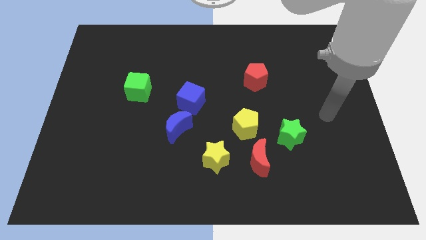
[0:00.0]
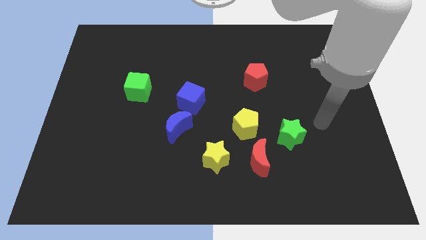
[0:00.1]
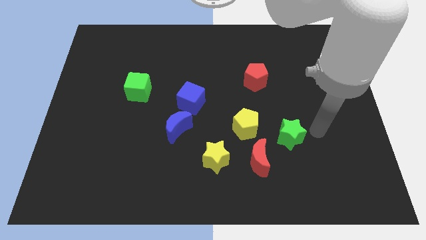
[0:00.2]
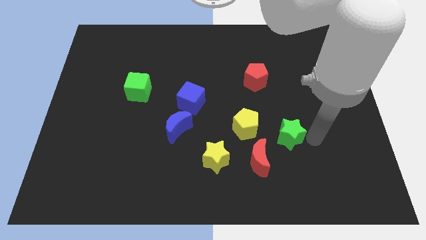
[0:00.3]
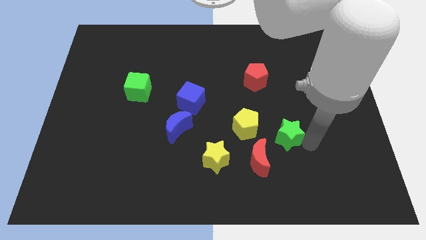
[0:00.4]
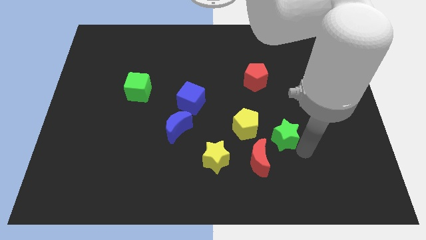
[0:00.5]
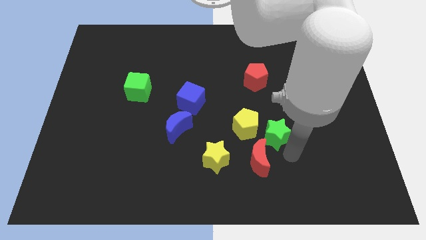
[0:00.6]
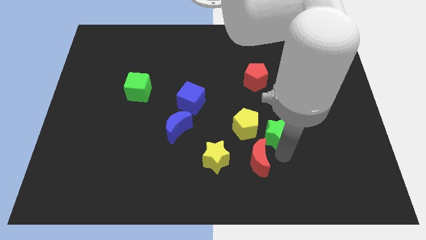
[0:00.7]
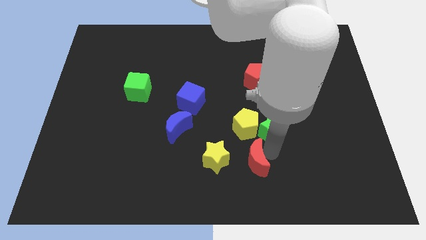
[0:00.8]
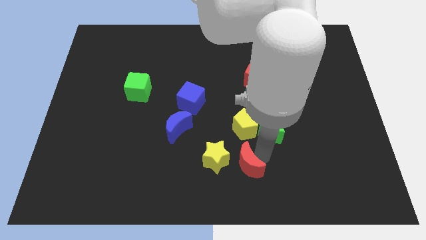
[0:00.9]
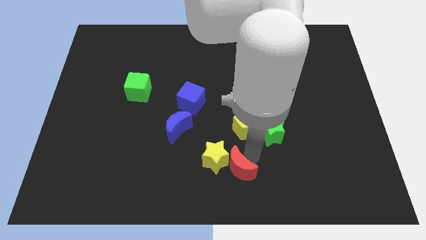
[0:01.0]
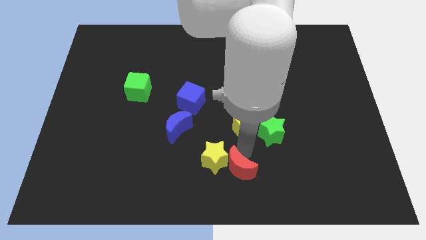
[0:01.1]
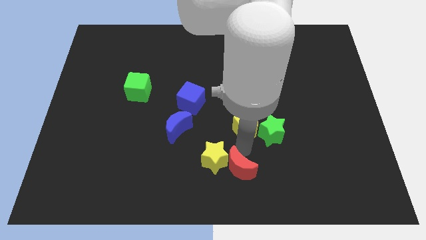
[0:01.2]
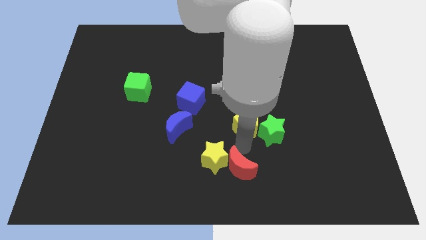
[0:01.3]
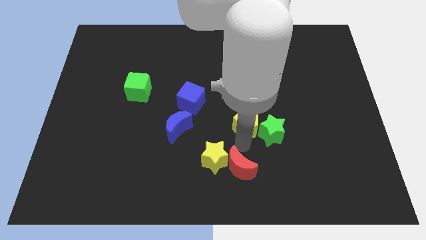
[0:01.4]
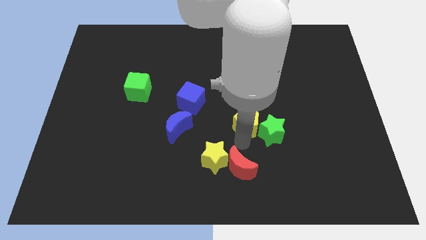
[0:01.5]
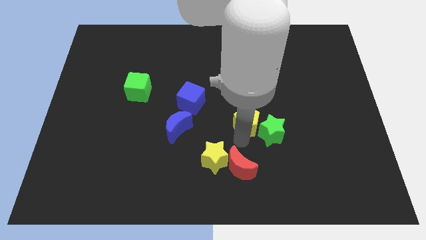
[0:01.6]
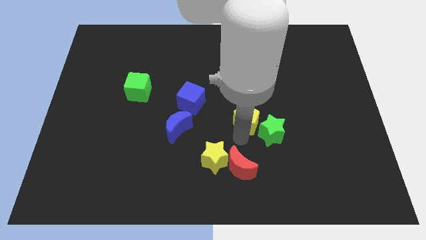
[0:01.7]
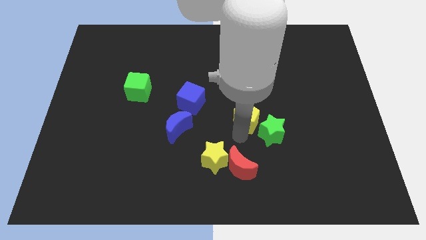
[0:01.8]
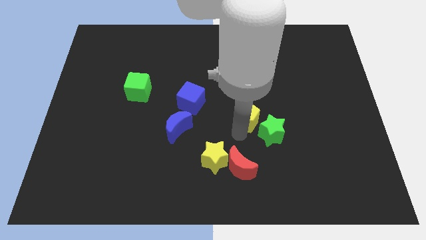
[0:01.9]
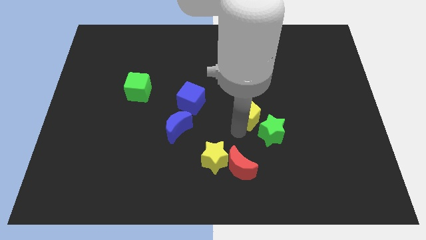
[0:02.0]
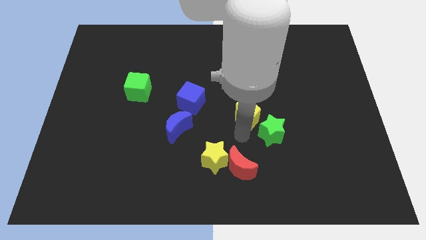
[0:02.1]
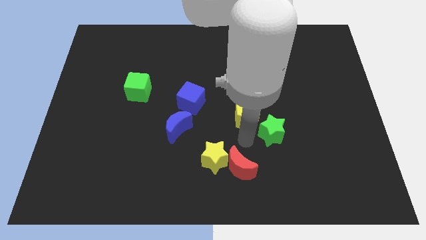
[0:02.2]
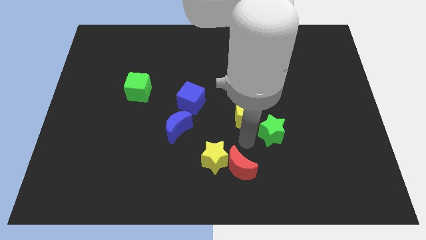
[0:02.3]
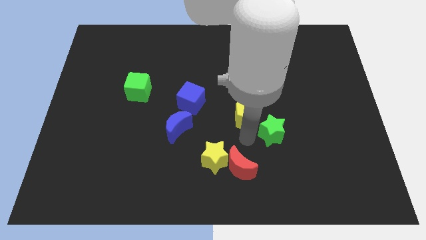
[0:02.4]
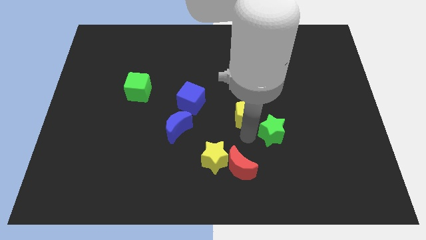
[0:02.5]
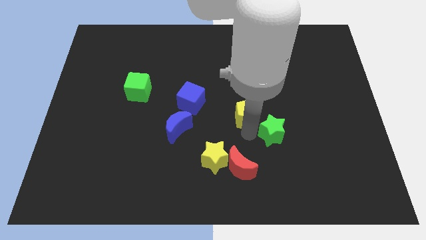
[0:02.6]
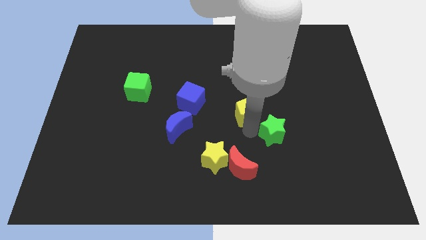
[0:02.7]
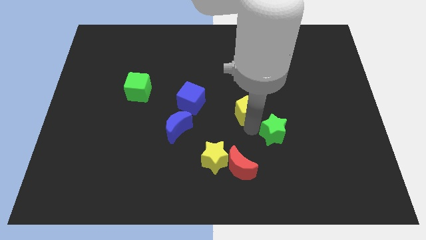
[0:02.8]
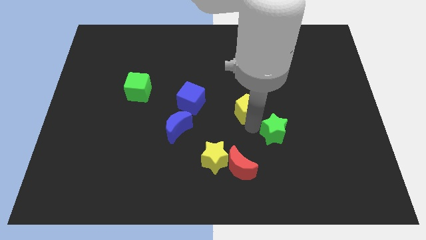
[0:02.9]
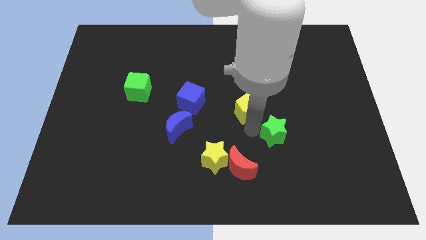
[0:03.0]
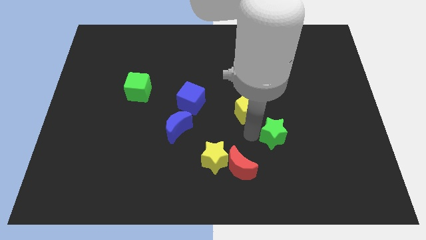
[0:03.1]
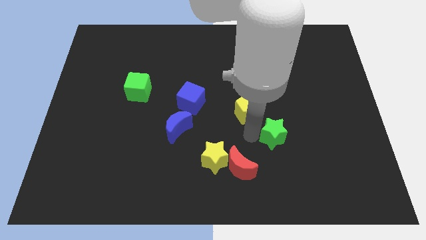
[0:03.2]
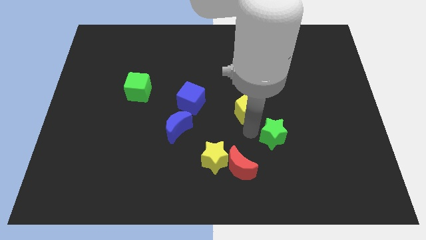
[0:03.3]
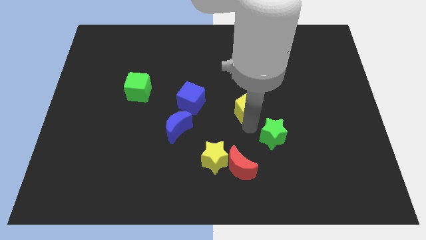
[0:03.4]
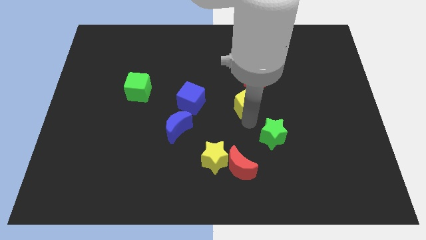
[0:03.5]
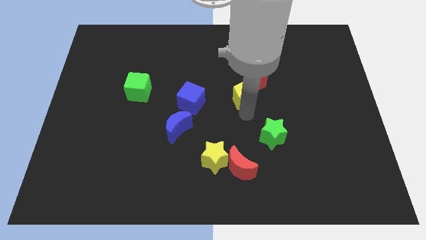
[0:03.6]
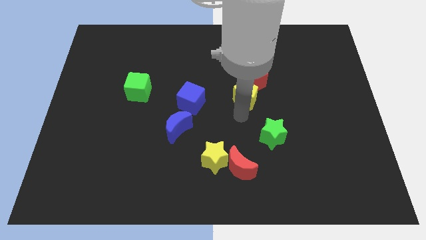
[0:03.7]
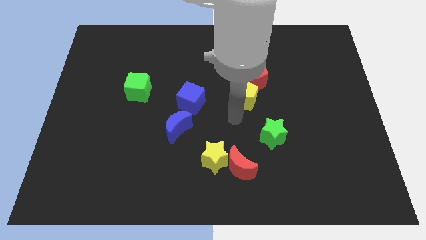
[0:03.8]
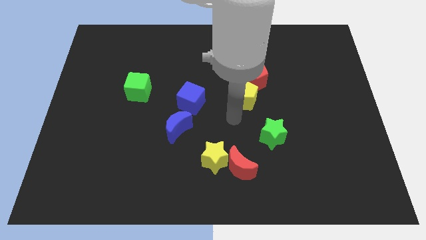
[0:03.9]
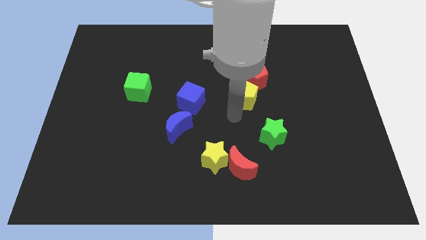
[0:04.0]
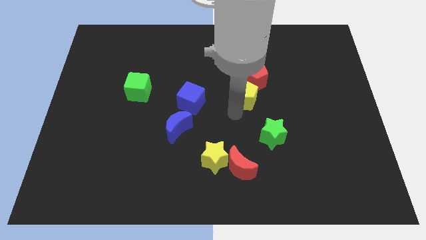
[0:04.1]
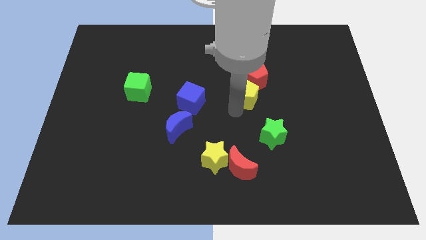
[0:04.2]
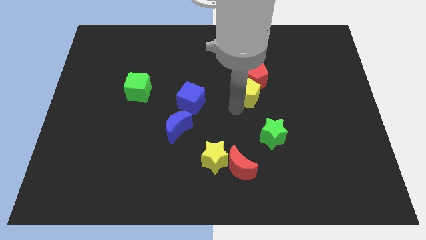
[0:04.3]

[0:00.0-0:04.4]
slide the yellow pentagon next to the red pentagon

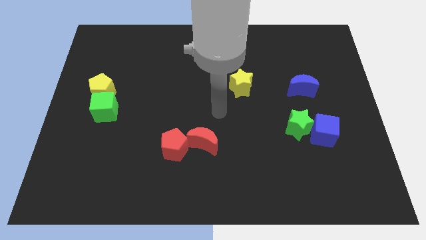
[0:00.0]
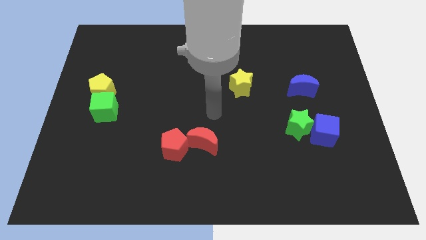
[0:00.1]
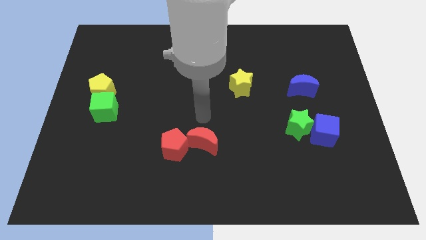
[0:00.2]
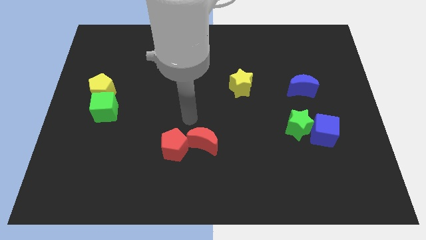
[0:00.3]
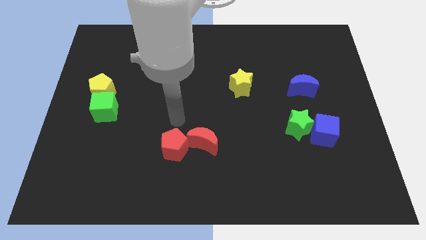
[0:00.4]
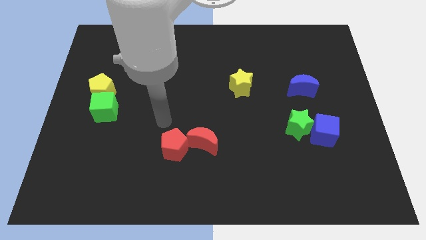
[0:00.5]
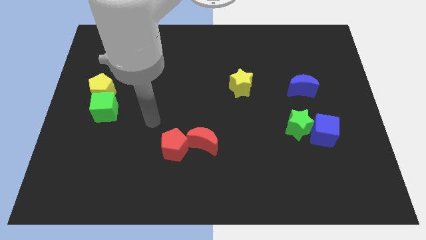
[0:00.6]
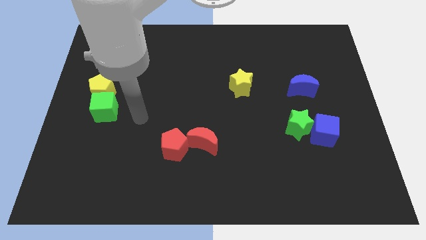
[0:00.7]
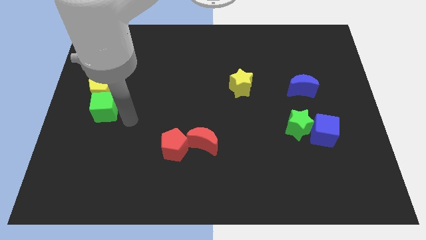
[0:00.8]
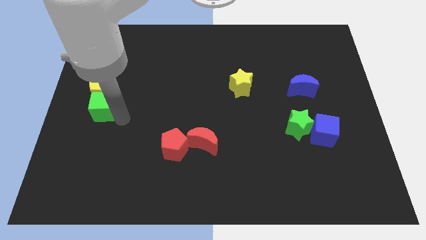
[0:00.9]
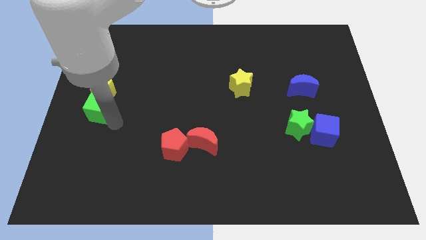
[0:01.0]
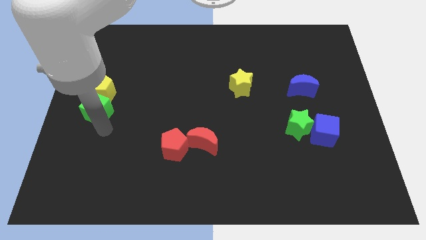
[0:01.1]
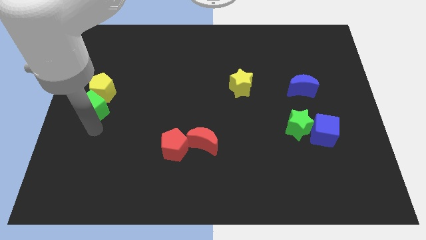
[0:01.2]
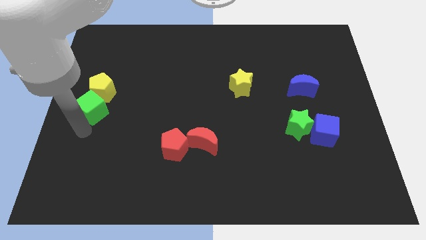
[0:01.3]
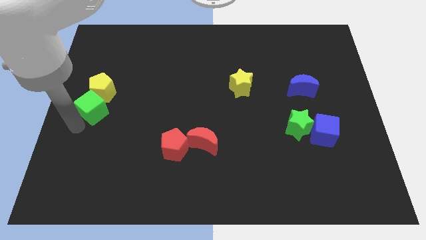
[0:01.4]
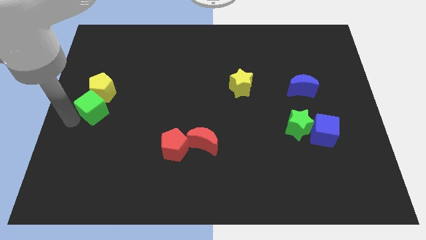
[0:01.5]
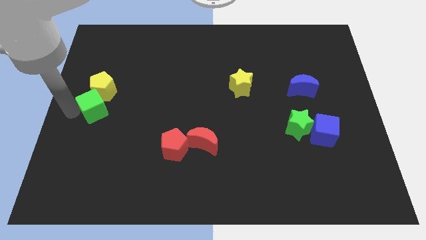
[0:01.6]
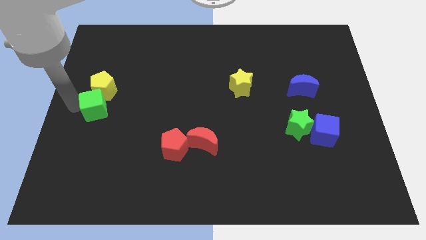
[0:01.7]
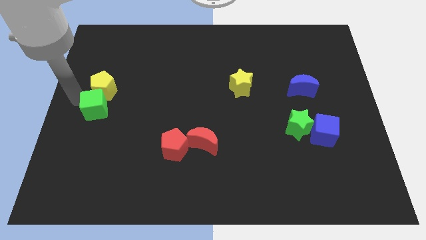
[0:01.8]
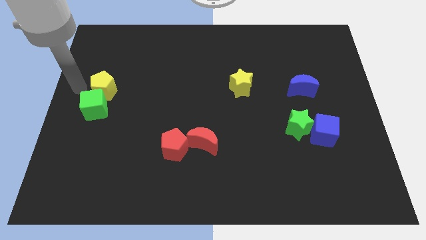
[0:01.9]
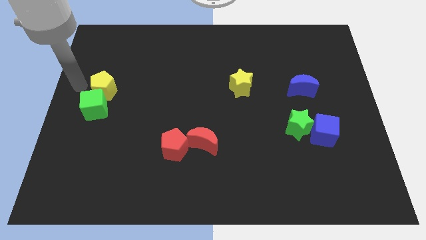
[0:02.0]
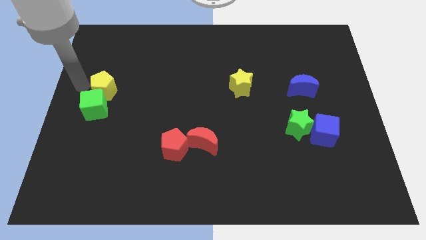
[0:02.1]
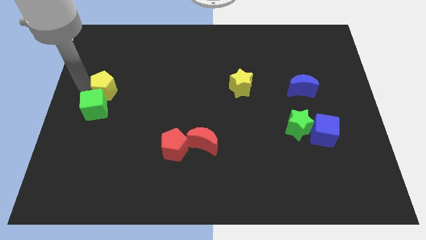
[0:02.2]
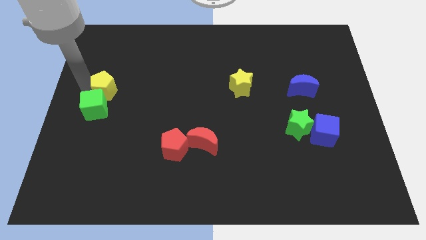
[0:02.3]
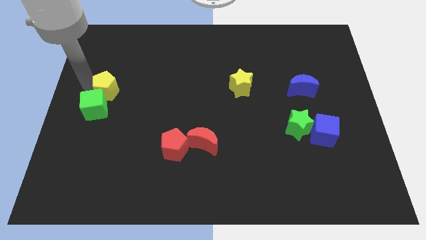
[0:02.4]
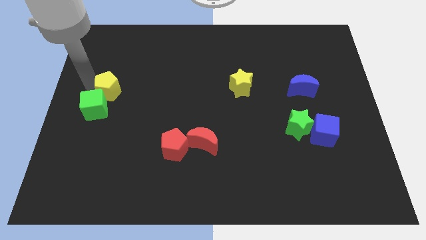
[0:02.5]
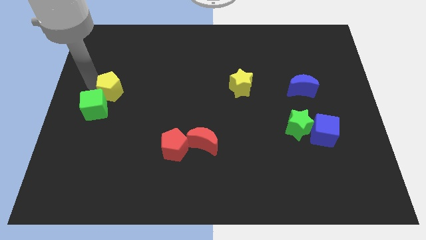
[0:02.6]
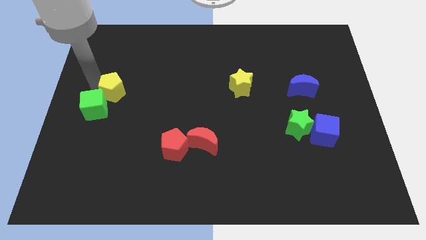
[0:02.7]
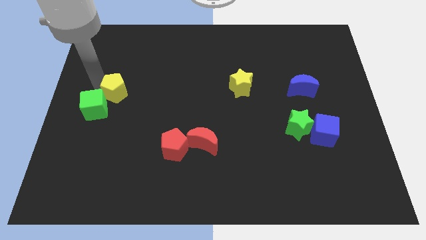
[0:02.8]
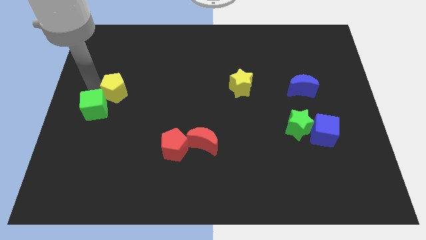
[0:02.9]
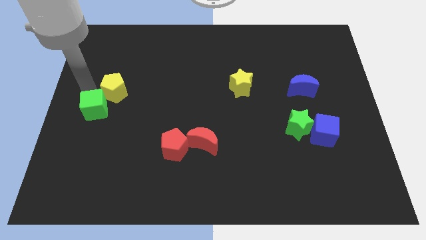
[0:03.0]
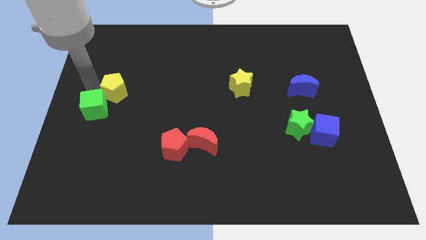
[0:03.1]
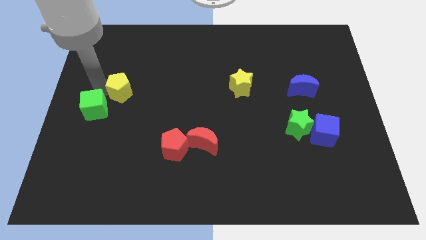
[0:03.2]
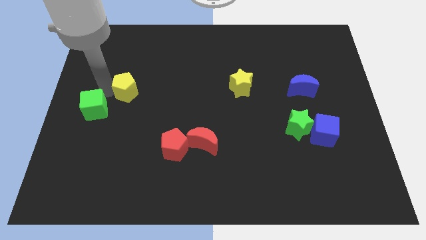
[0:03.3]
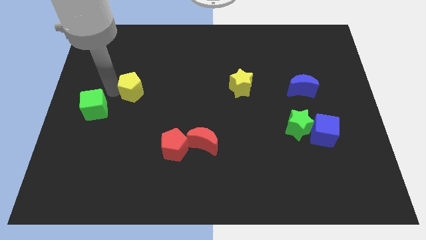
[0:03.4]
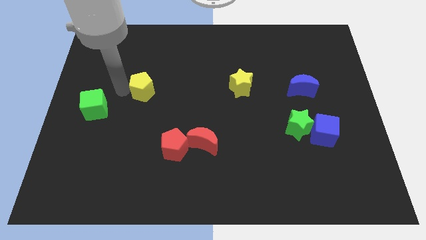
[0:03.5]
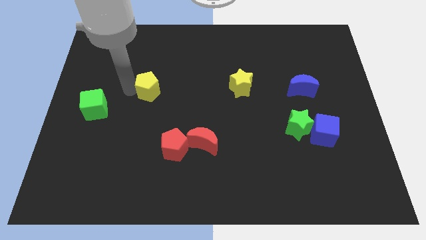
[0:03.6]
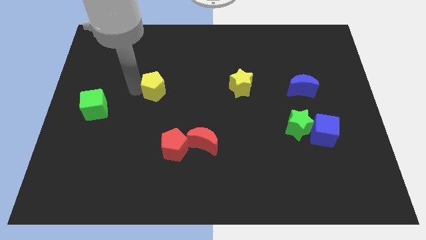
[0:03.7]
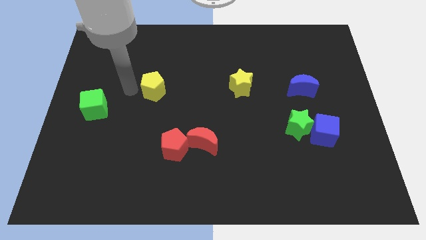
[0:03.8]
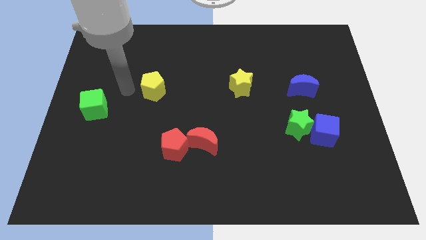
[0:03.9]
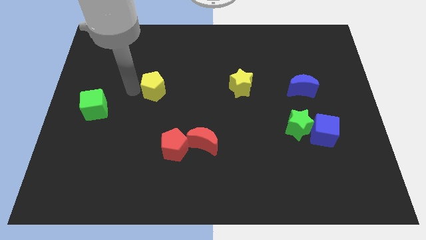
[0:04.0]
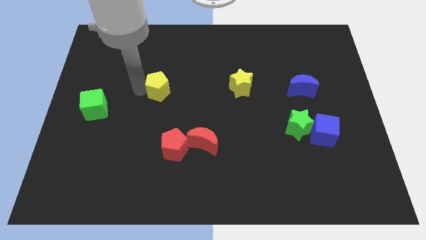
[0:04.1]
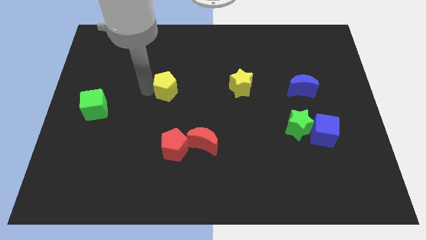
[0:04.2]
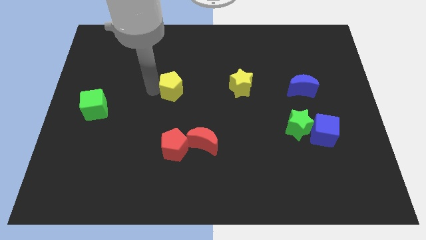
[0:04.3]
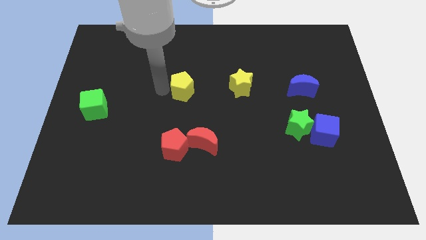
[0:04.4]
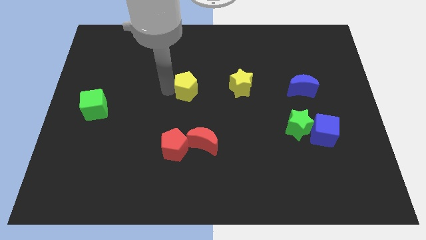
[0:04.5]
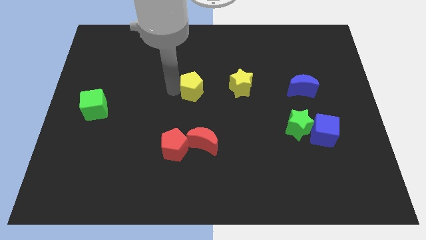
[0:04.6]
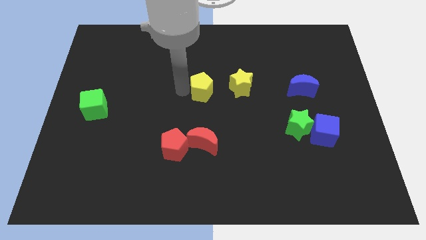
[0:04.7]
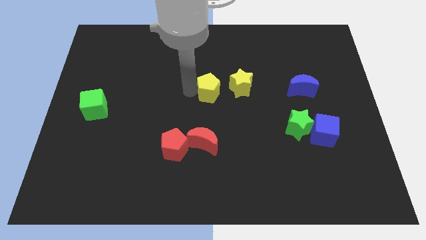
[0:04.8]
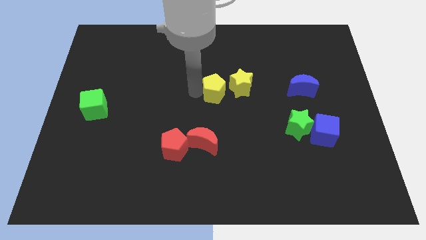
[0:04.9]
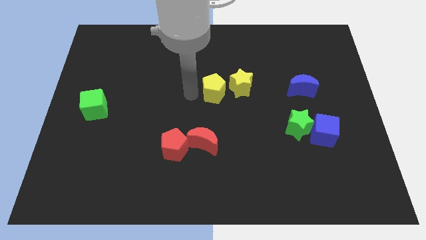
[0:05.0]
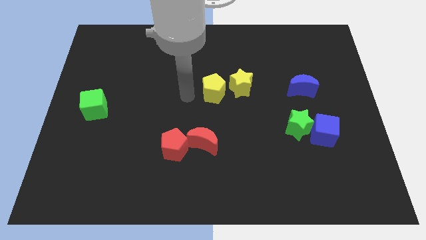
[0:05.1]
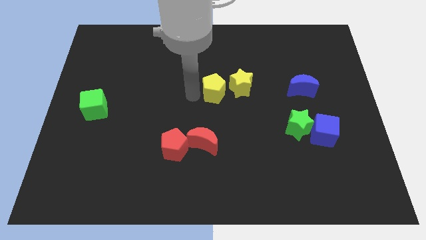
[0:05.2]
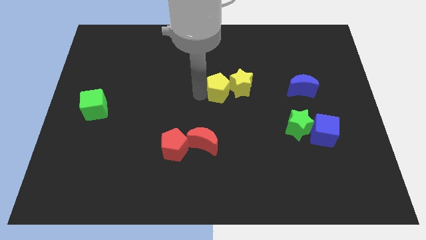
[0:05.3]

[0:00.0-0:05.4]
put the yellow pentagon towards the yellow star
